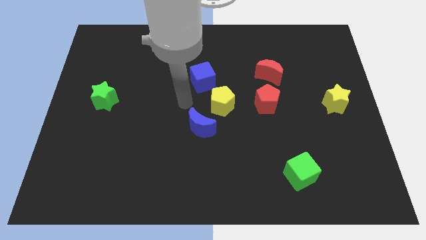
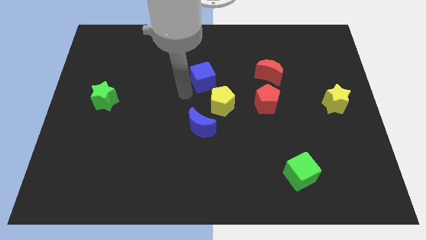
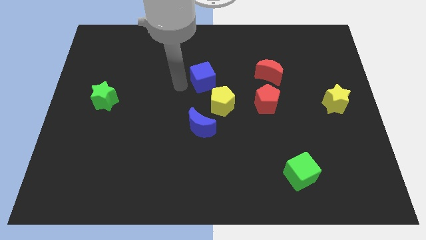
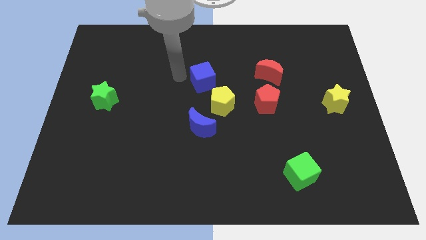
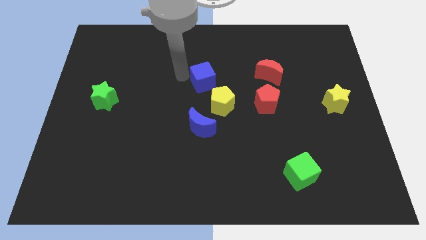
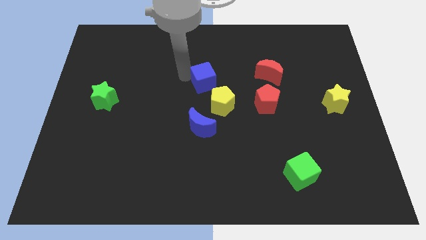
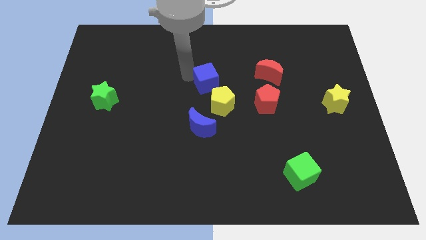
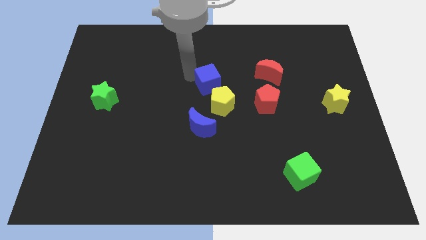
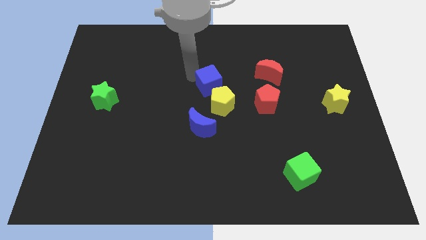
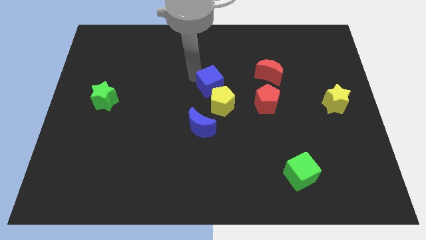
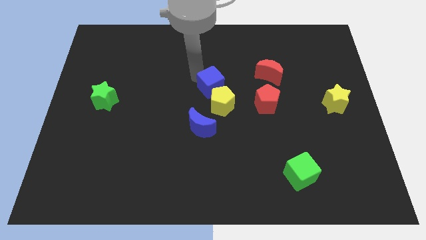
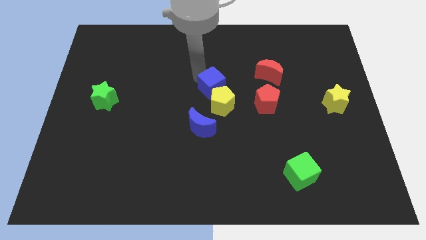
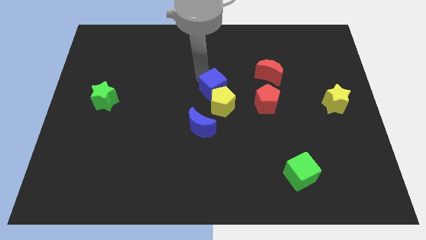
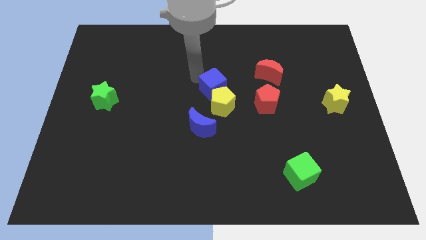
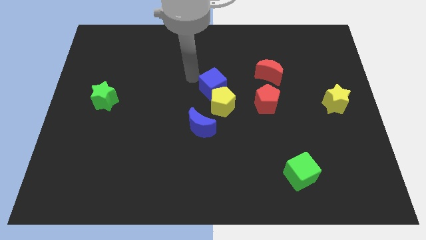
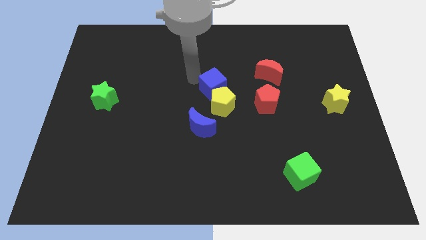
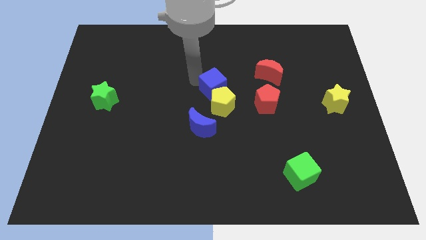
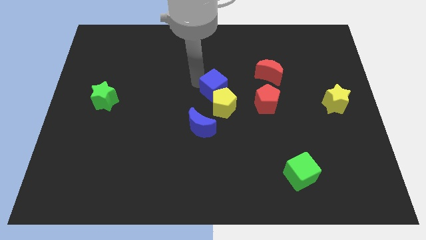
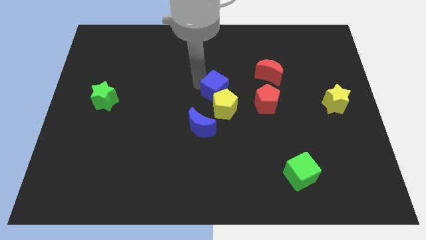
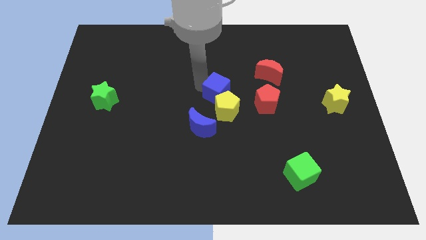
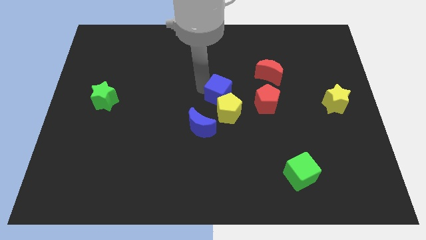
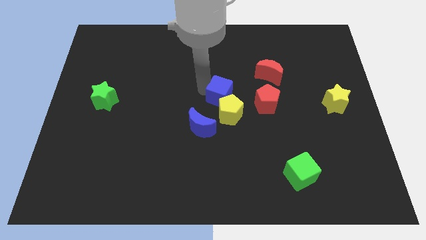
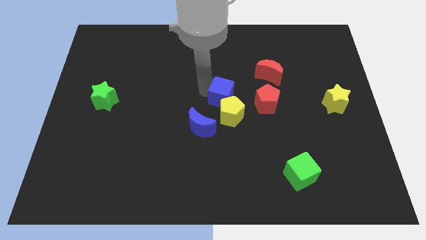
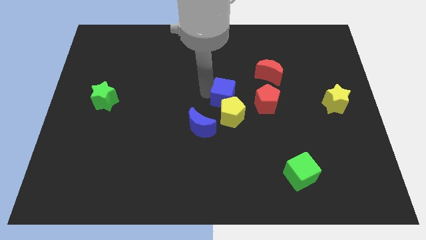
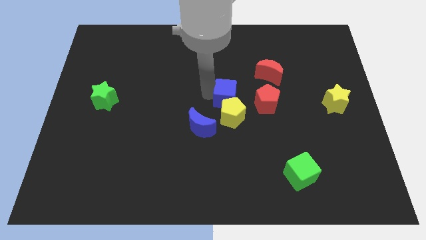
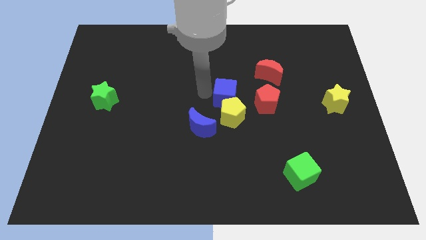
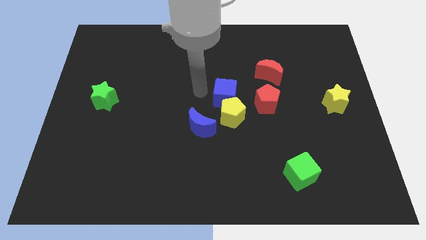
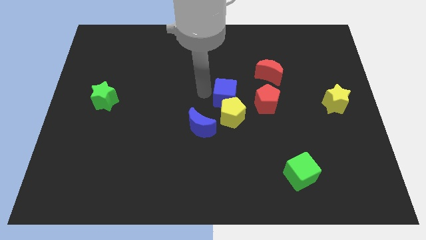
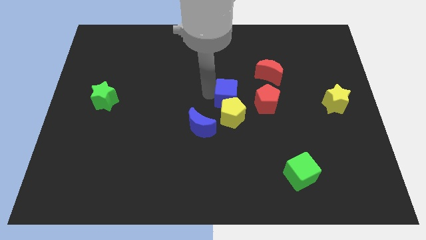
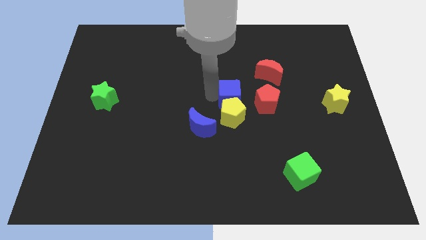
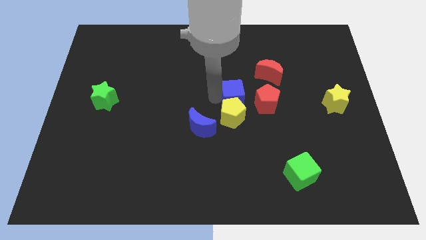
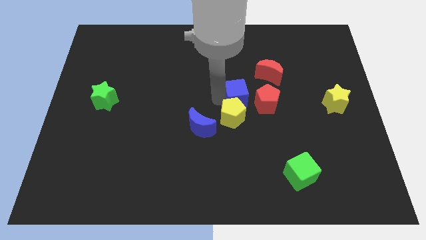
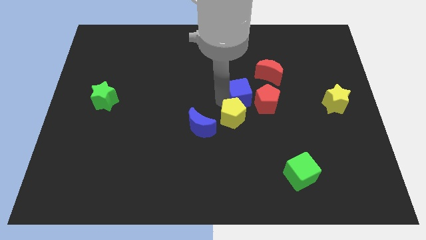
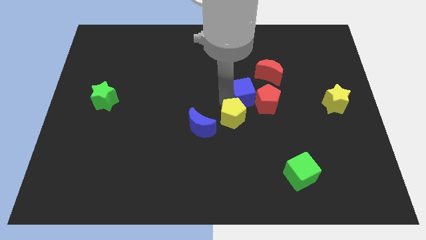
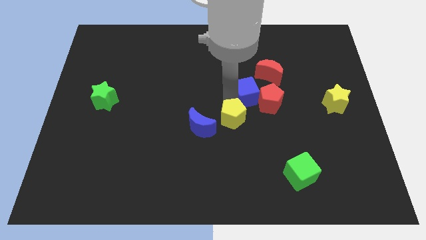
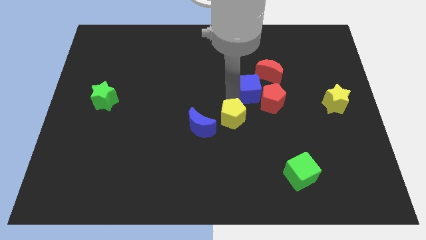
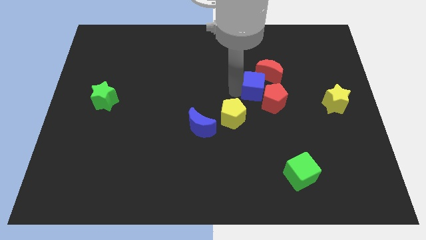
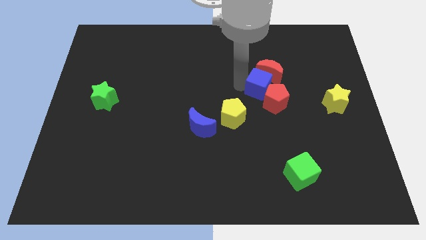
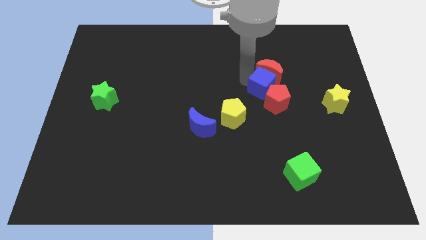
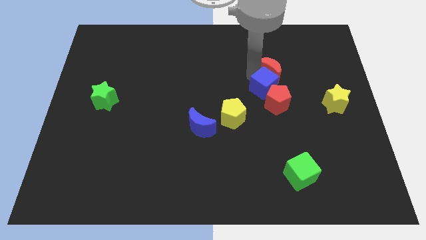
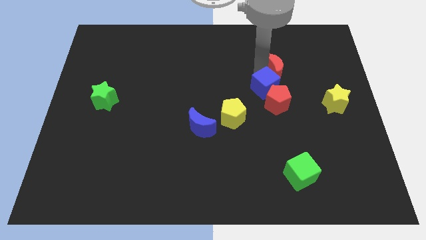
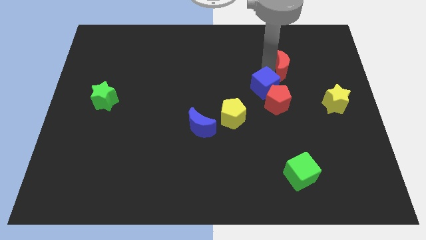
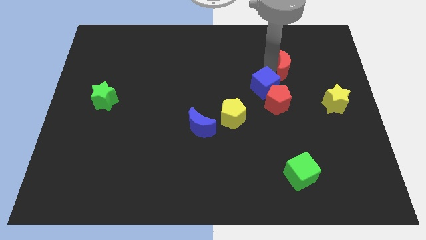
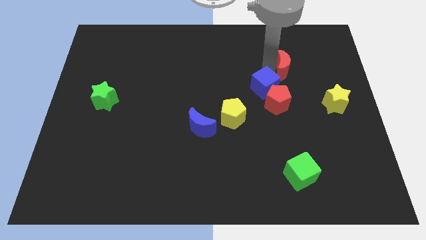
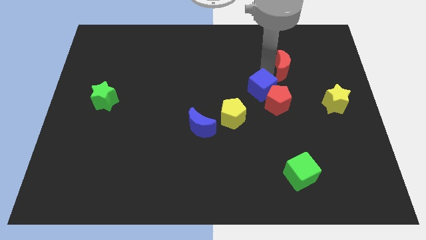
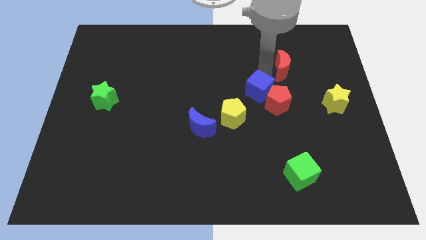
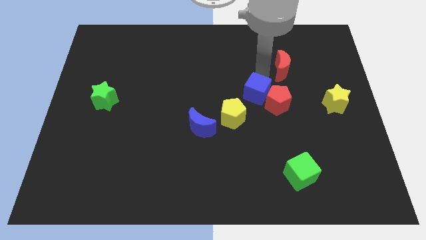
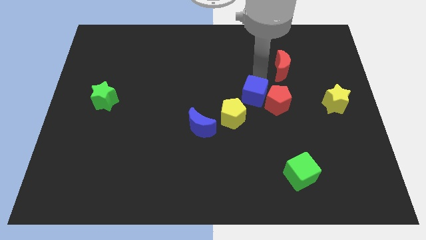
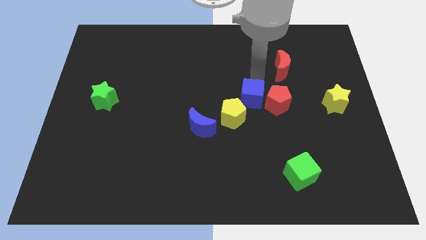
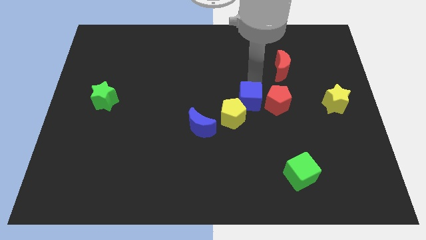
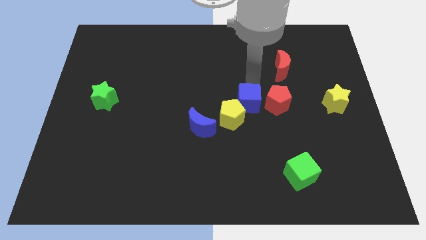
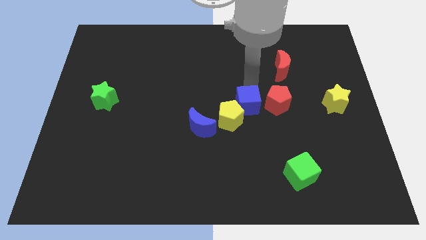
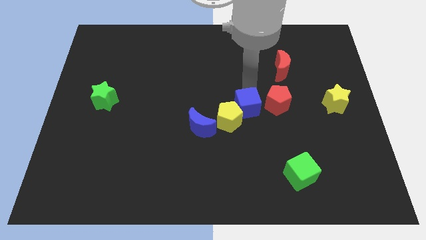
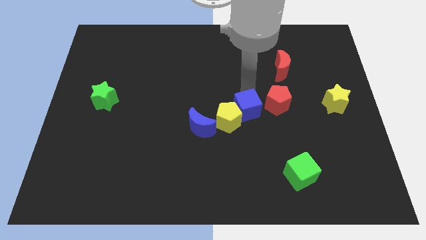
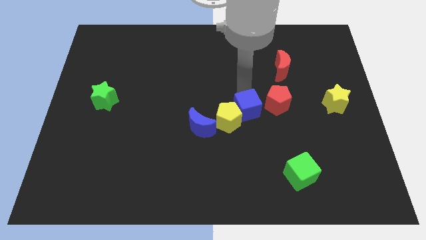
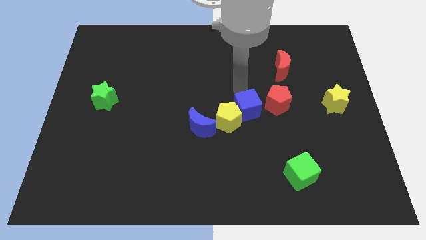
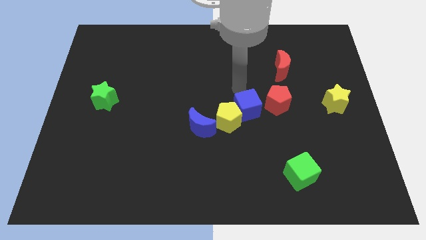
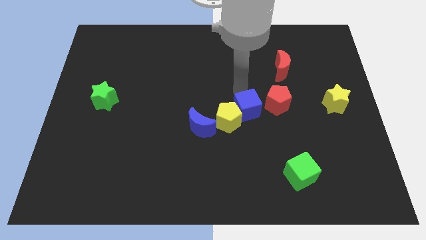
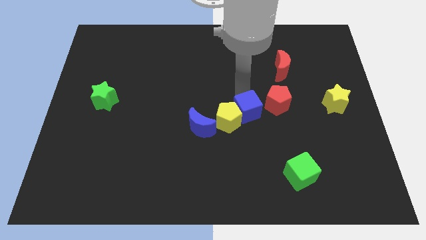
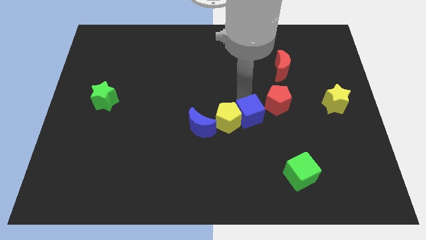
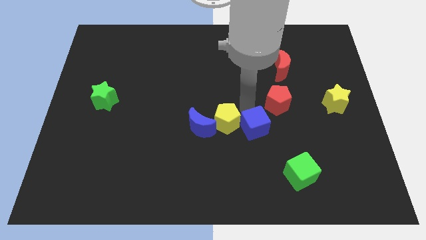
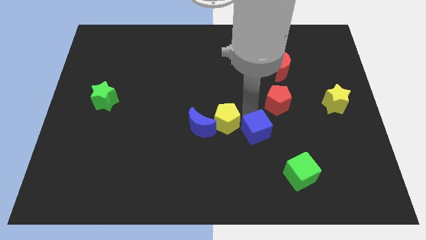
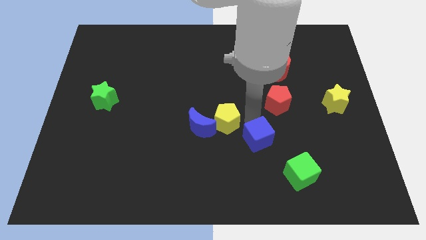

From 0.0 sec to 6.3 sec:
move the blue cube to the top left side of the green cube

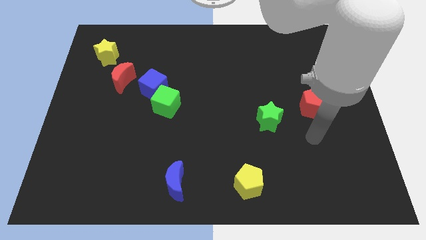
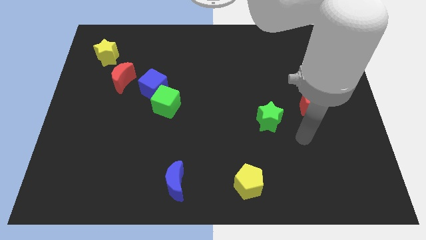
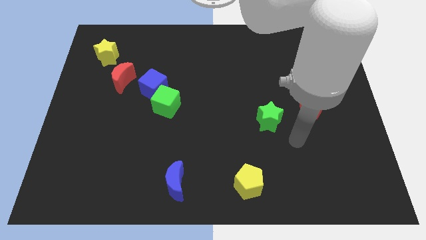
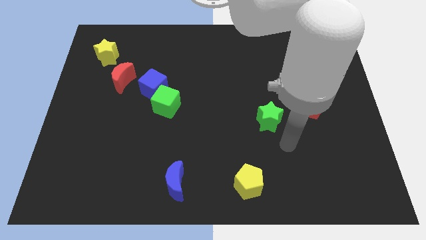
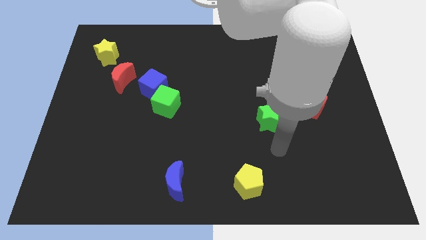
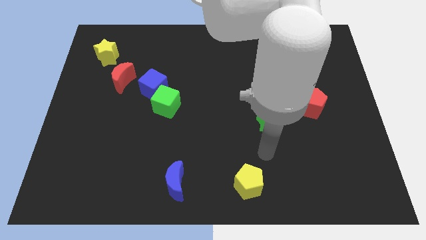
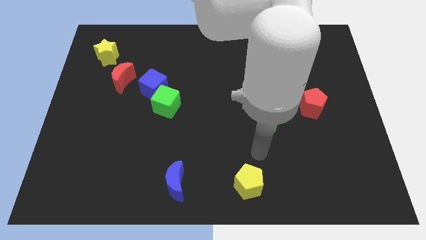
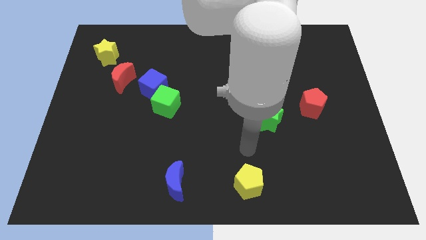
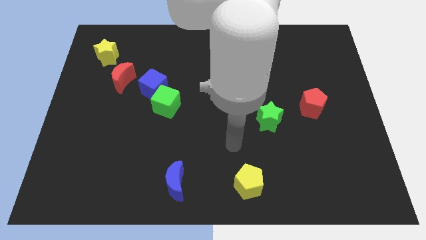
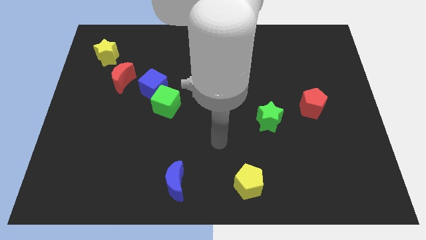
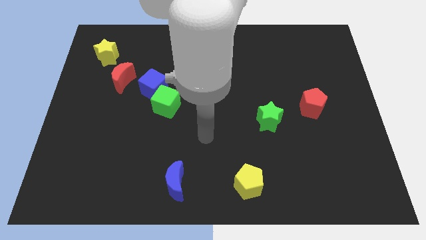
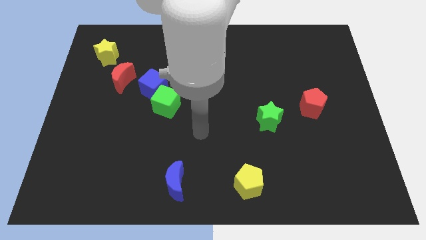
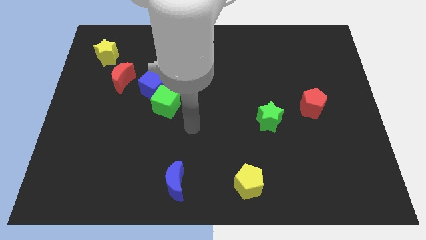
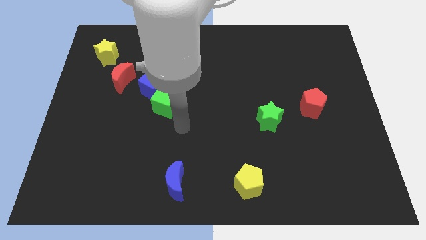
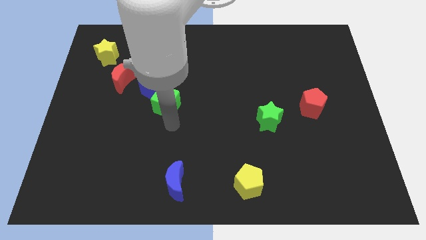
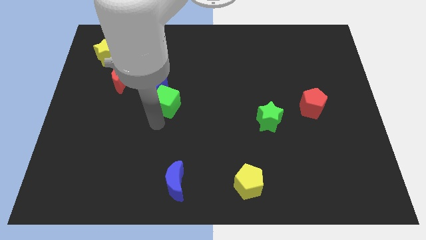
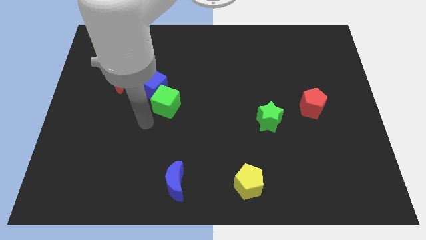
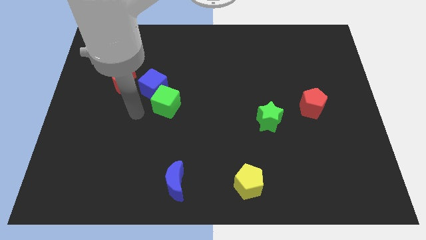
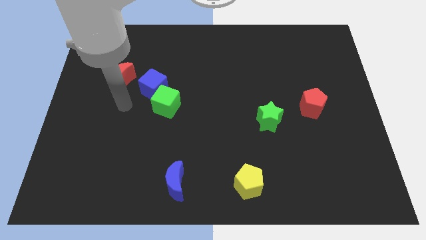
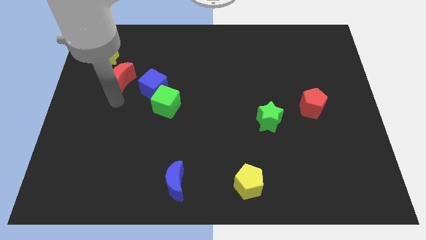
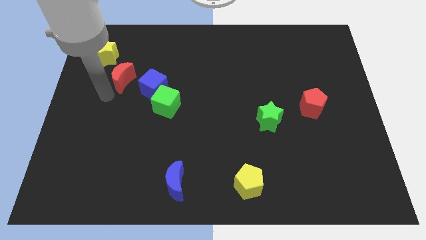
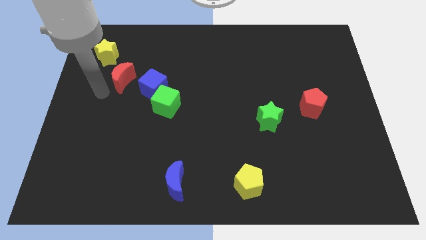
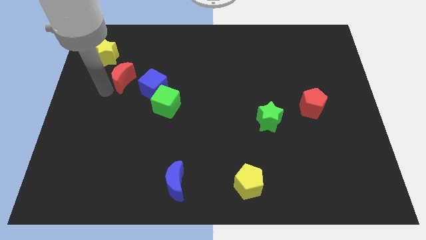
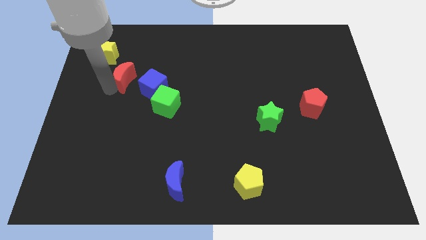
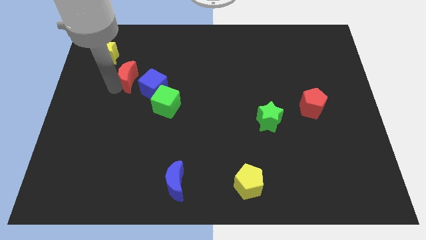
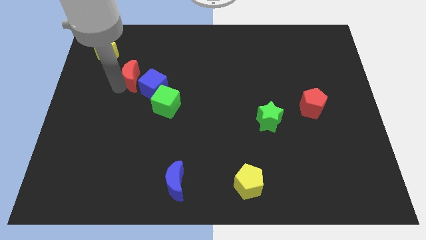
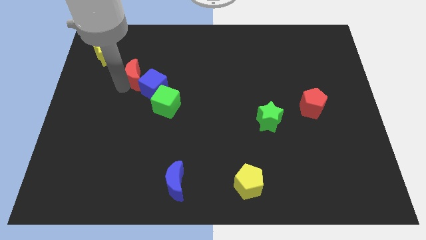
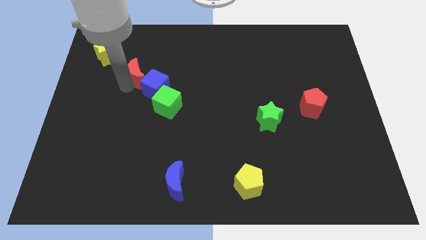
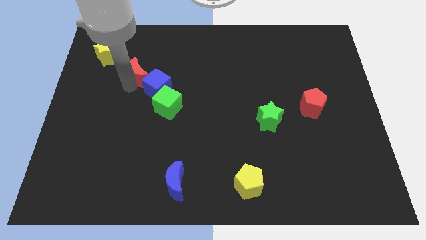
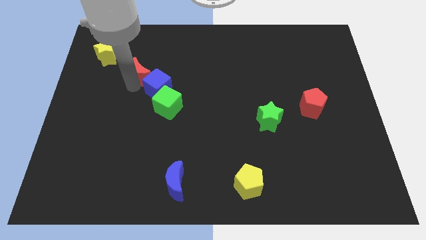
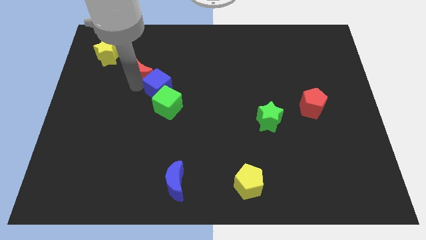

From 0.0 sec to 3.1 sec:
move the red moon to the top of the blue cube
